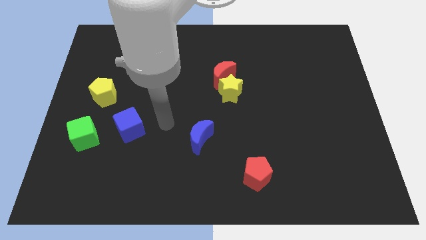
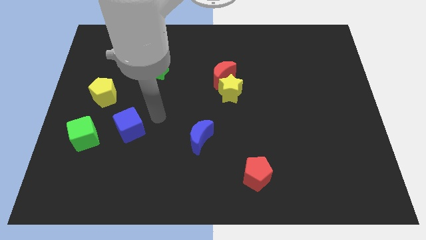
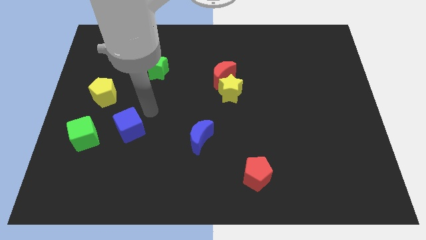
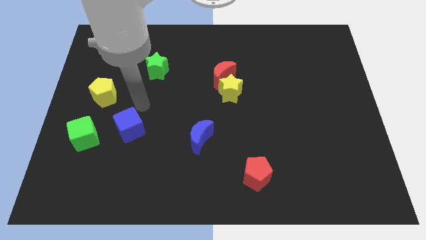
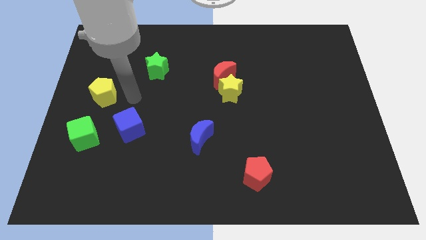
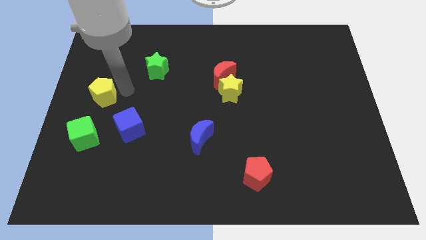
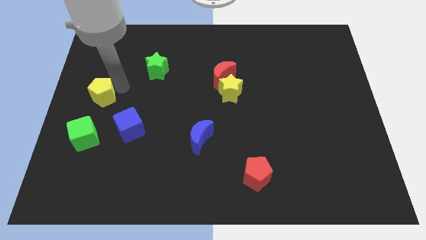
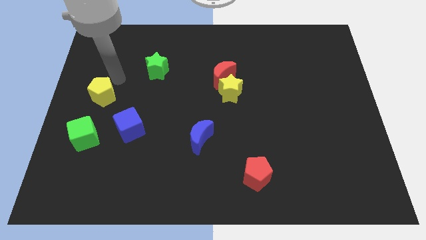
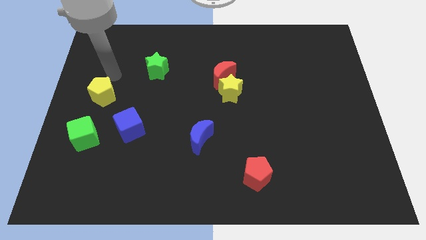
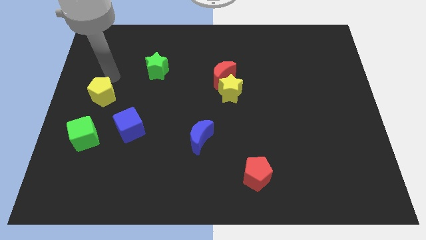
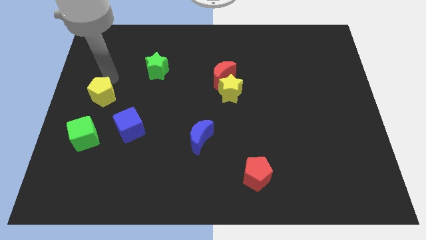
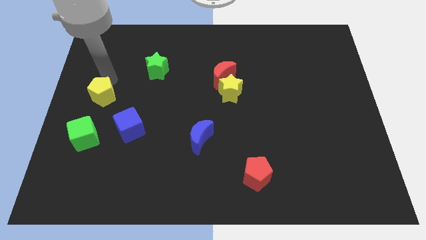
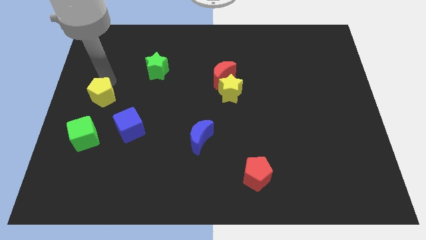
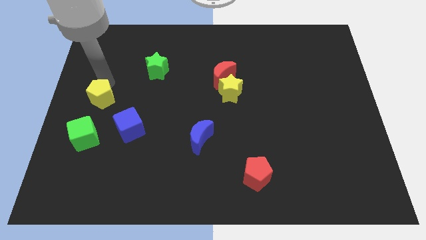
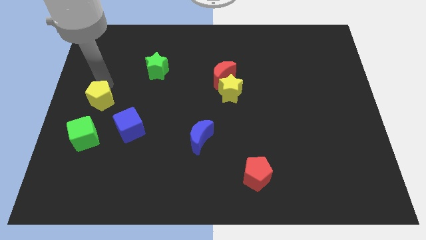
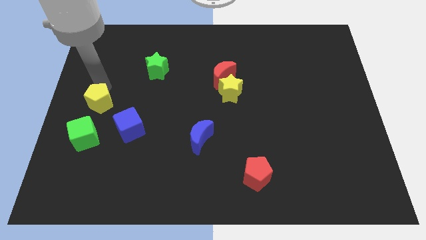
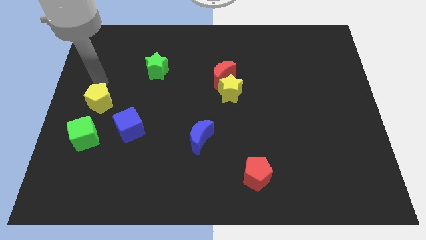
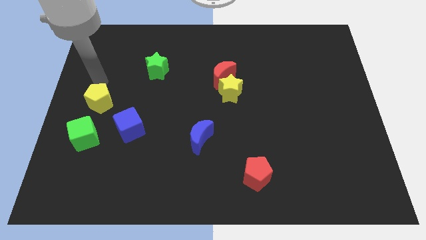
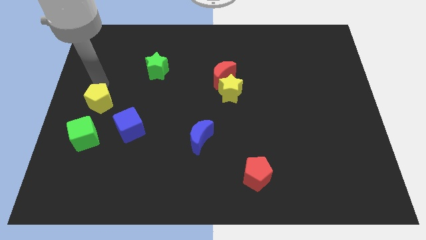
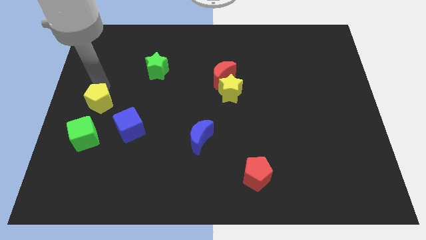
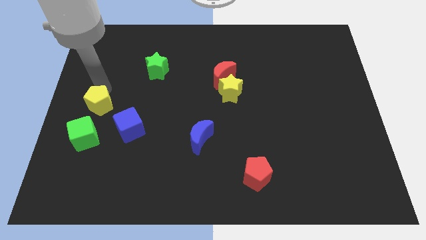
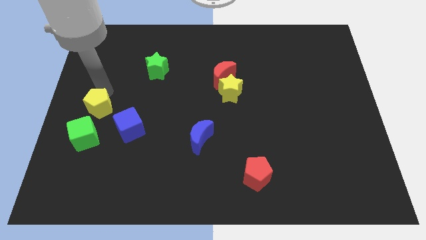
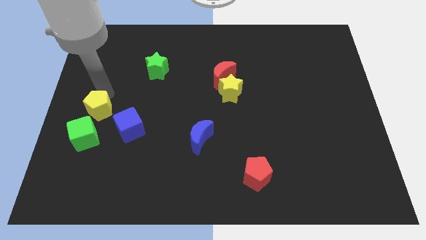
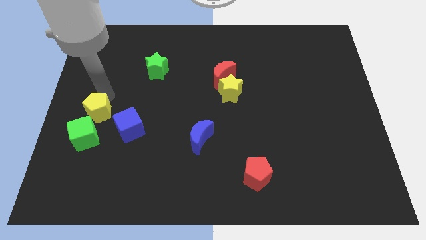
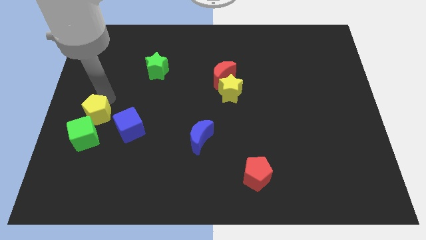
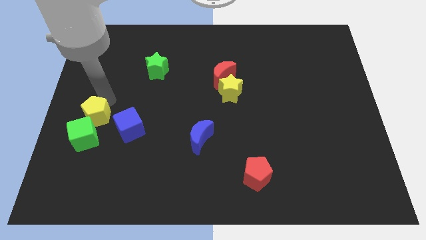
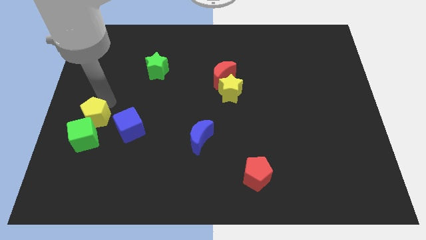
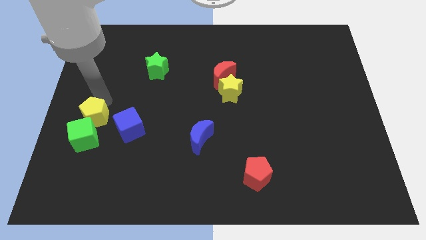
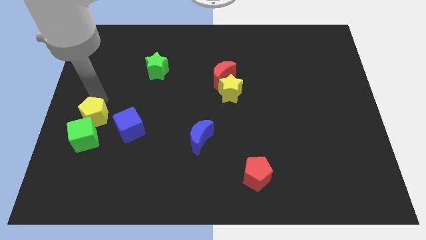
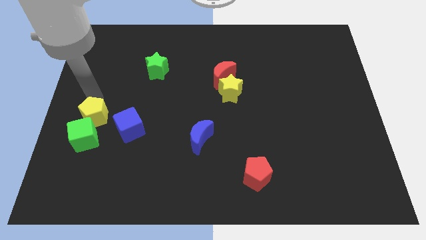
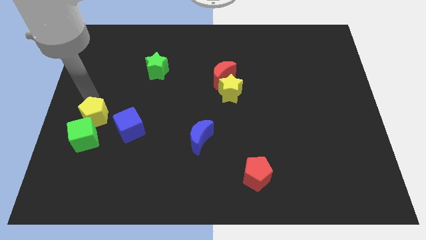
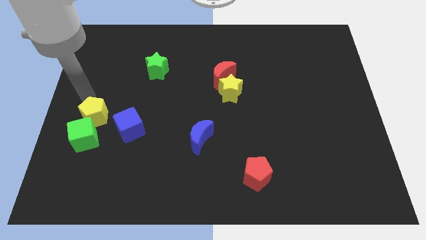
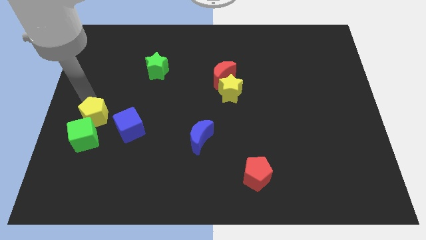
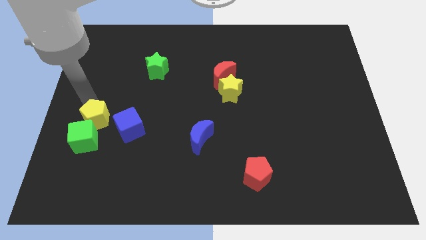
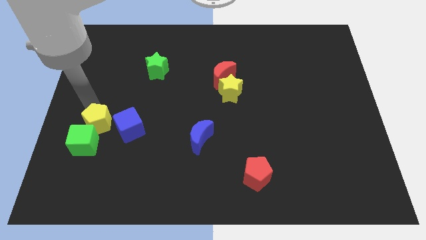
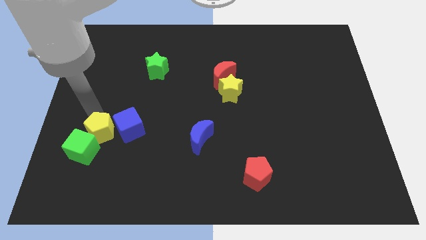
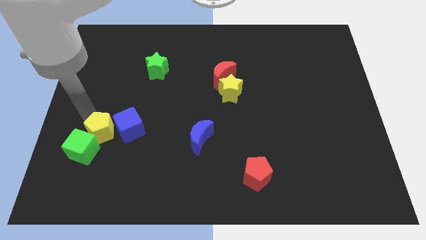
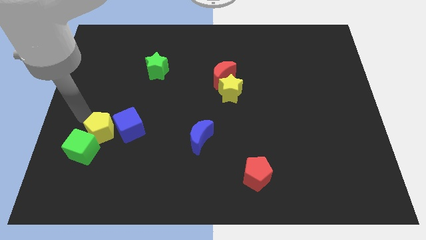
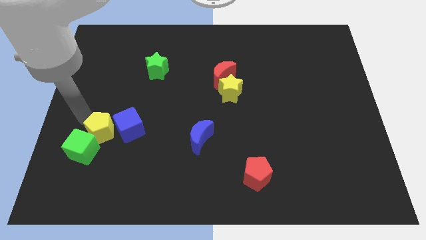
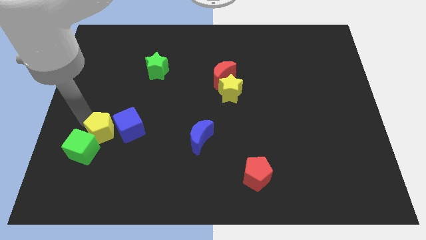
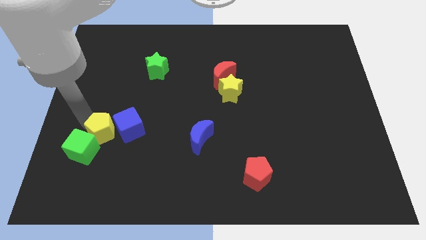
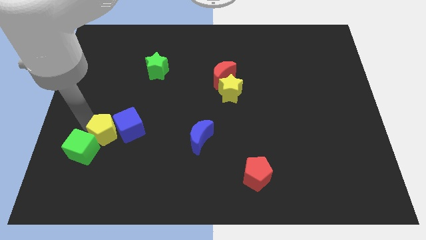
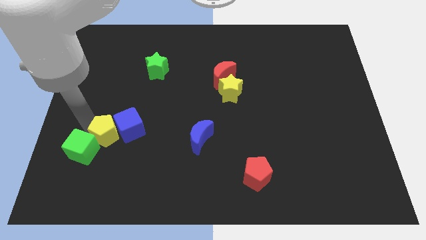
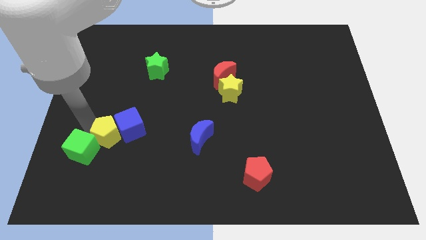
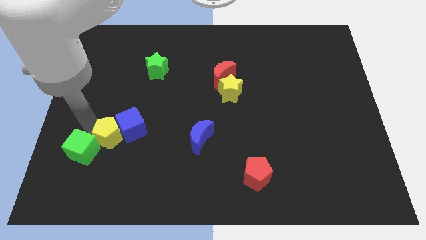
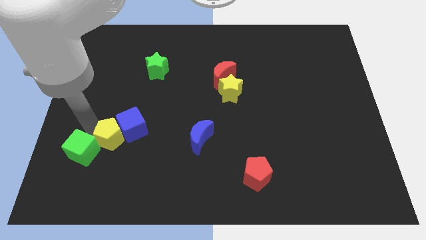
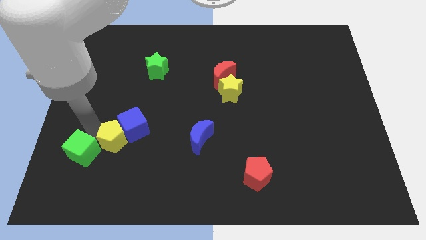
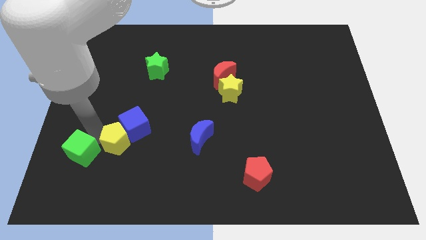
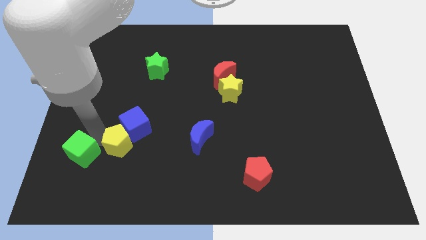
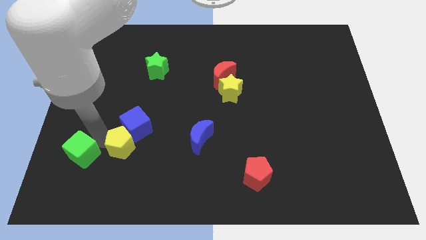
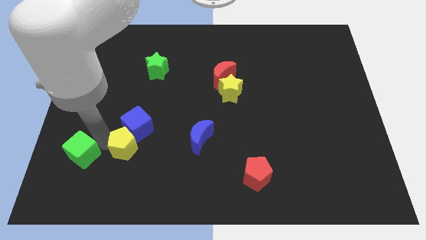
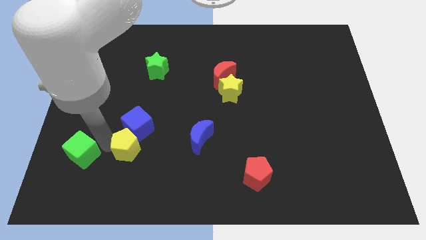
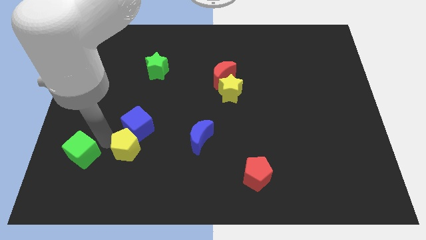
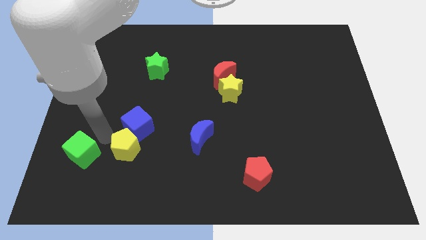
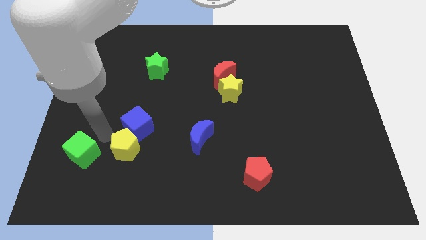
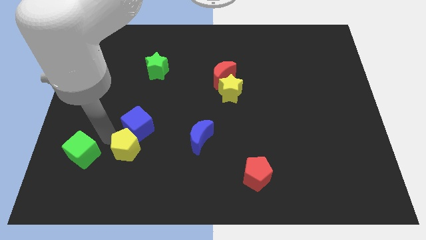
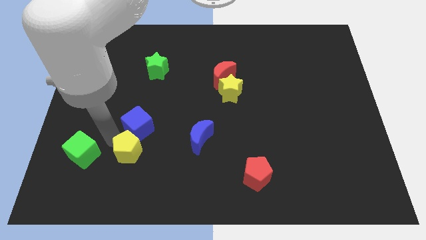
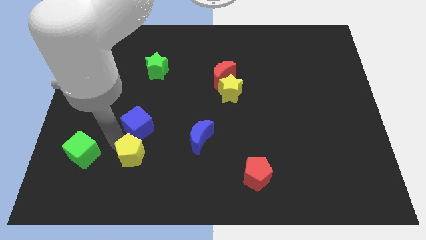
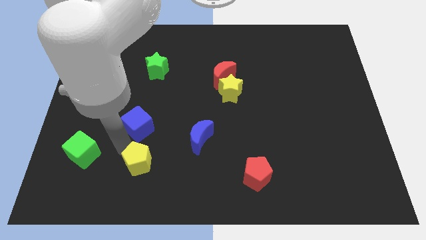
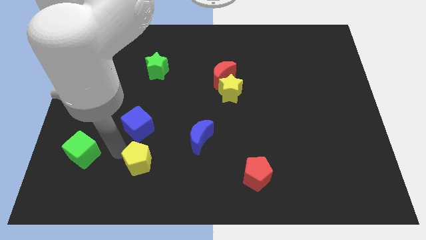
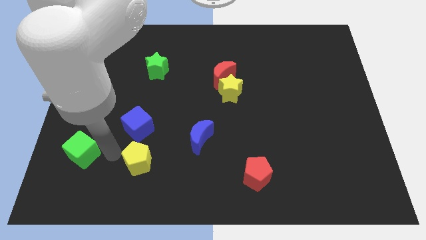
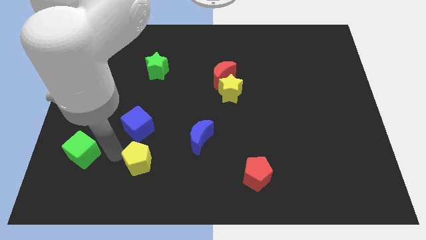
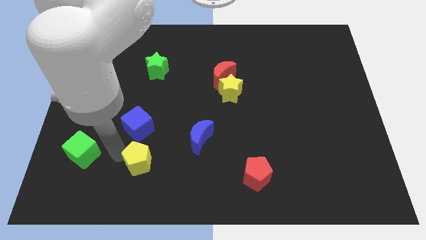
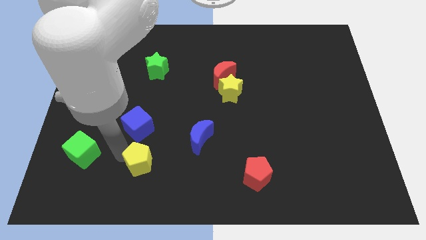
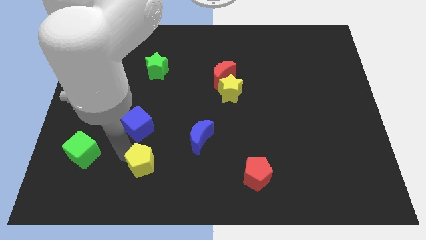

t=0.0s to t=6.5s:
push the yellow pentagon downwards and right diagonally

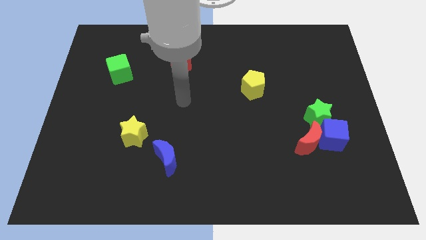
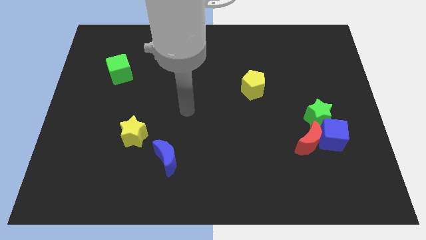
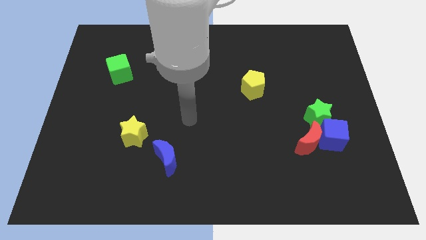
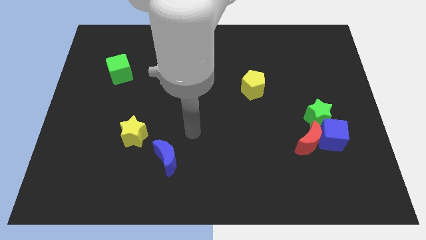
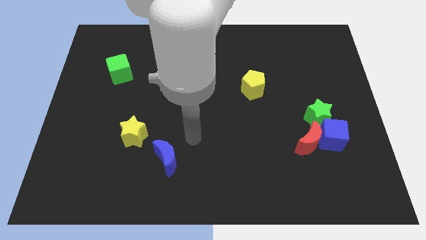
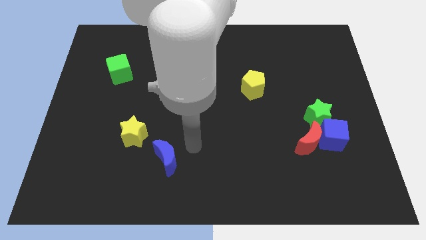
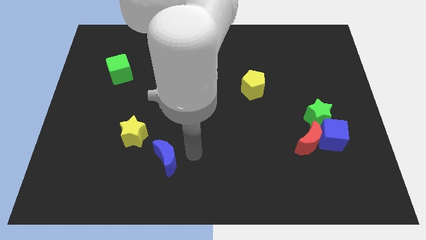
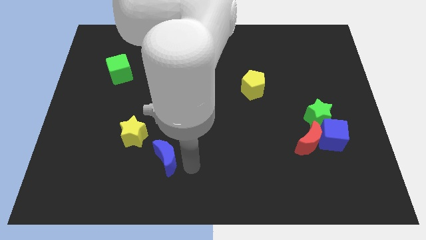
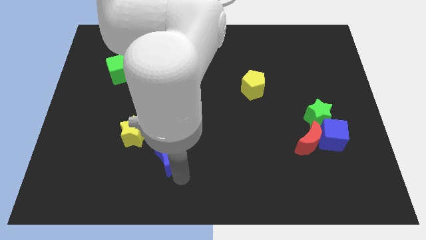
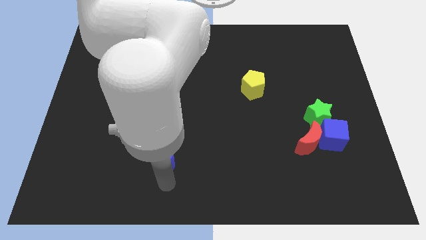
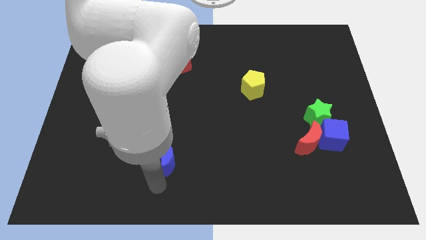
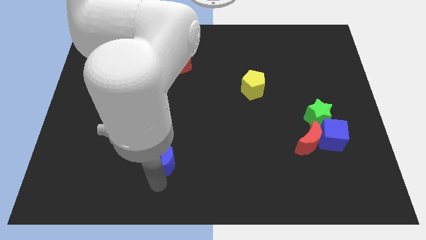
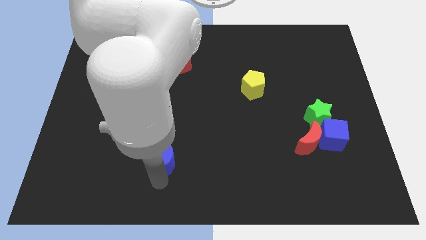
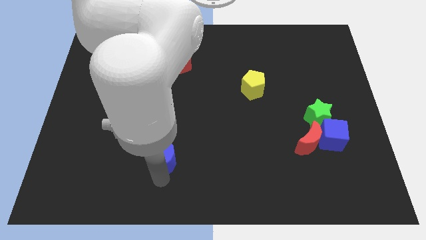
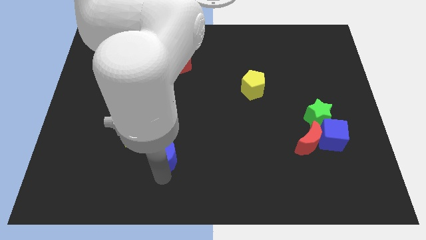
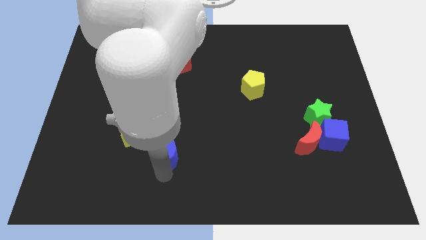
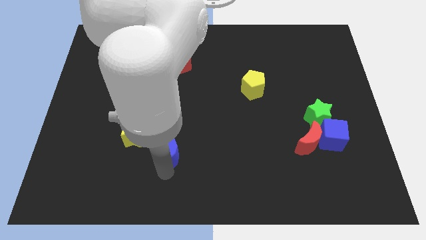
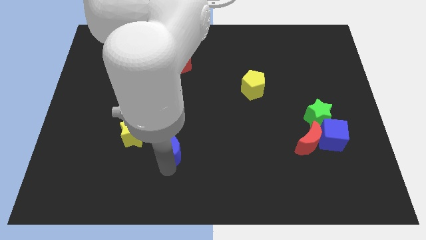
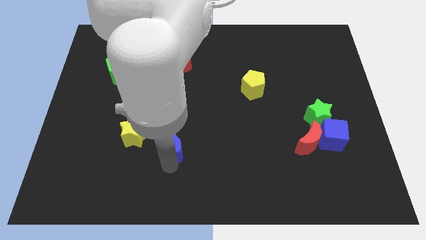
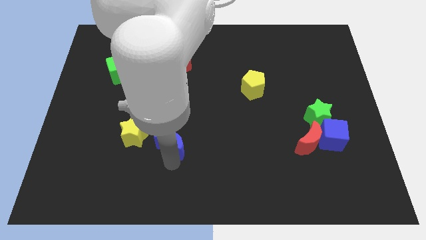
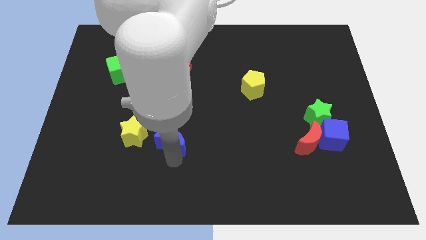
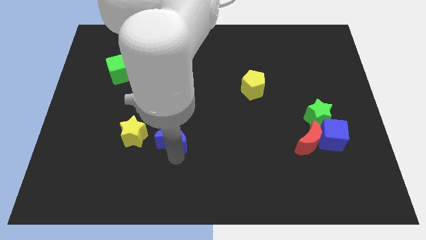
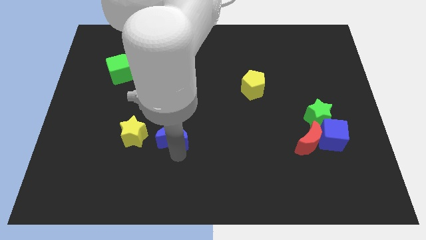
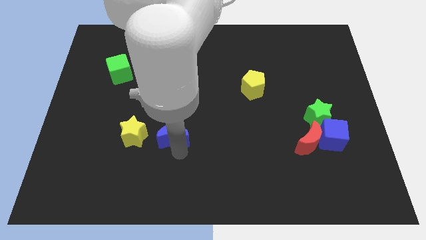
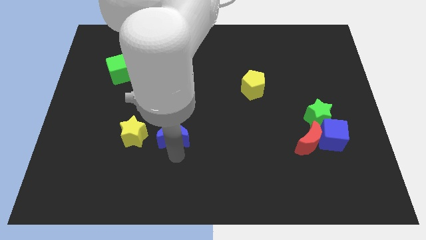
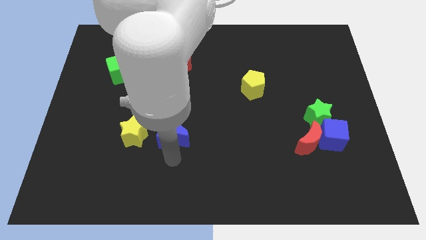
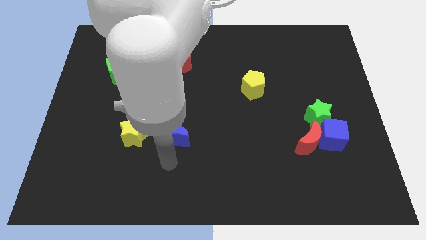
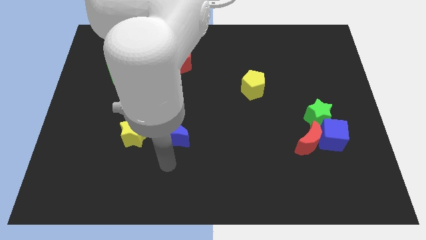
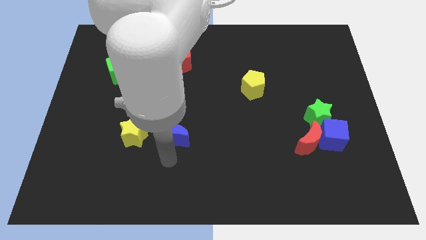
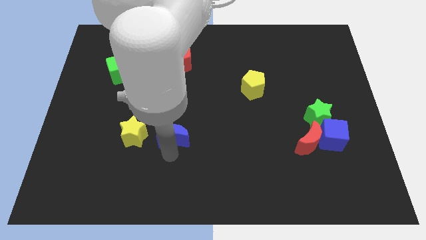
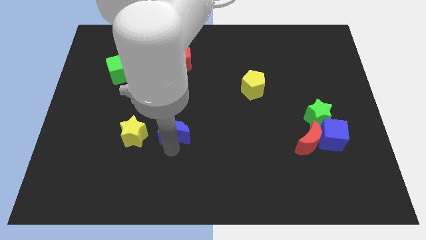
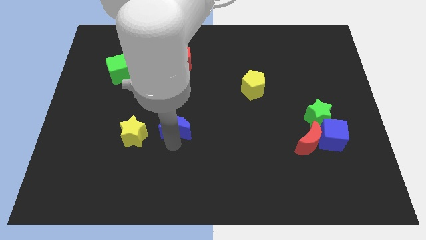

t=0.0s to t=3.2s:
slightly move the blue moon up
